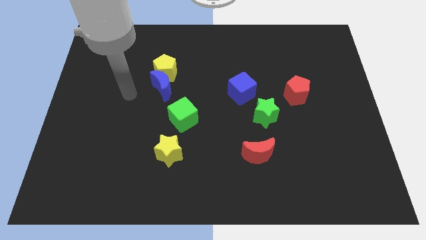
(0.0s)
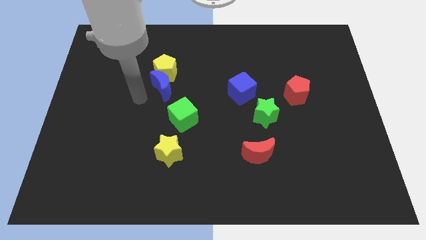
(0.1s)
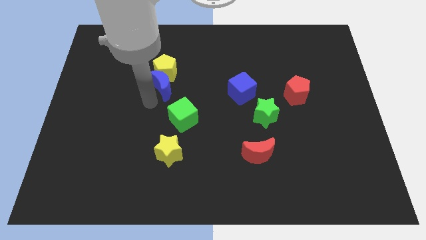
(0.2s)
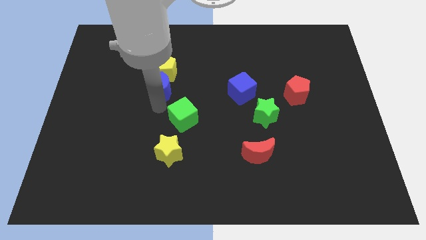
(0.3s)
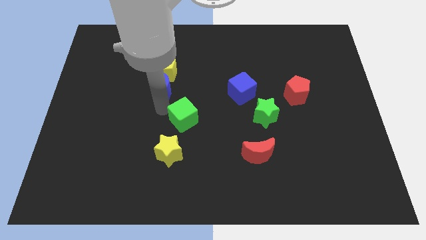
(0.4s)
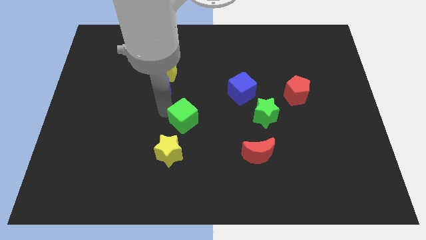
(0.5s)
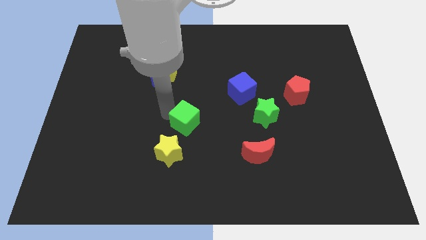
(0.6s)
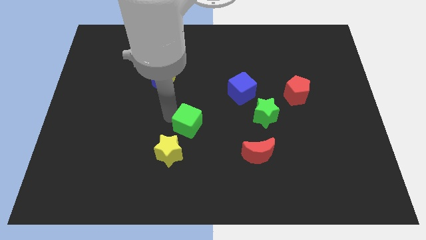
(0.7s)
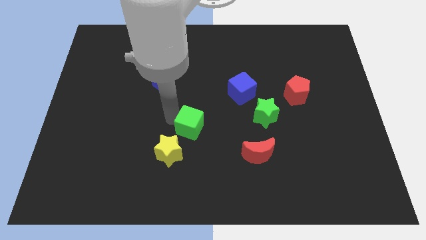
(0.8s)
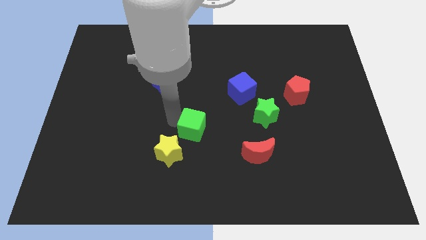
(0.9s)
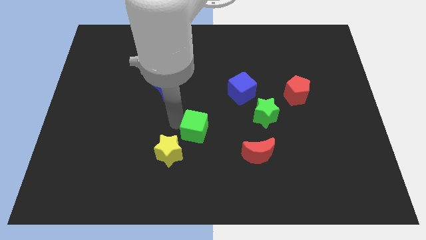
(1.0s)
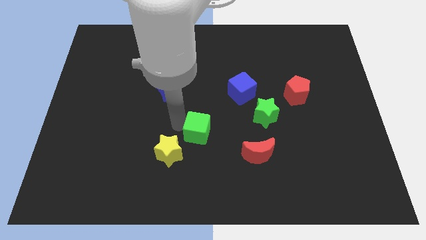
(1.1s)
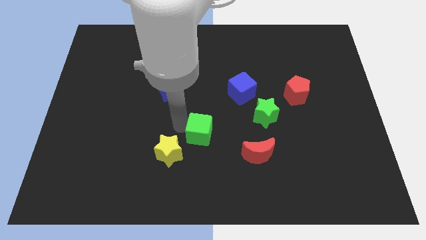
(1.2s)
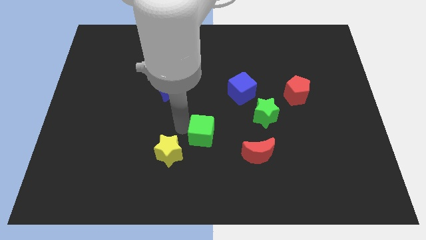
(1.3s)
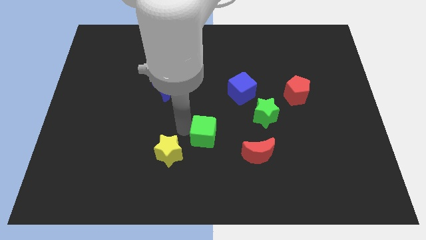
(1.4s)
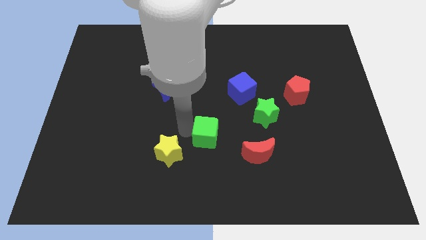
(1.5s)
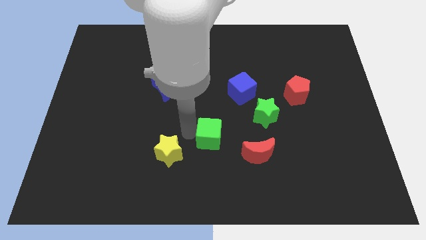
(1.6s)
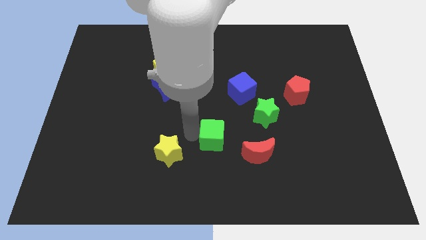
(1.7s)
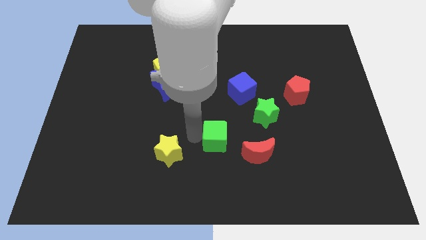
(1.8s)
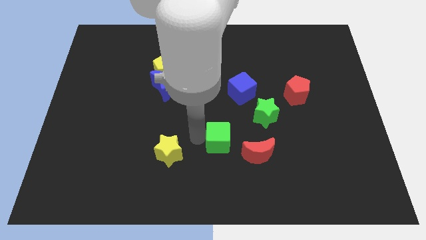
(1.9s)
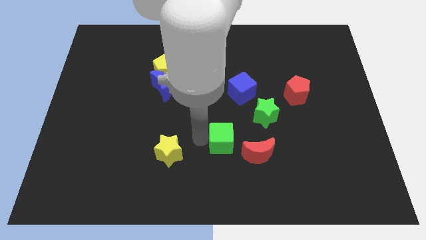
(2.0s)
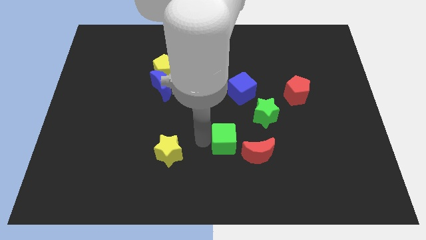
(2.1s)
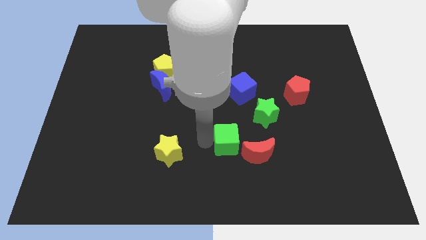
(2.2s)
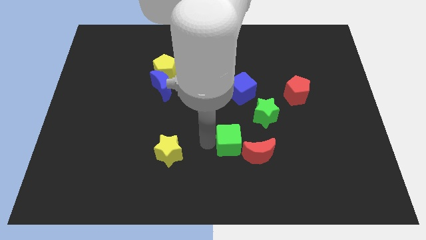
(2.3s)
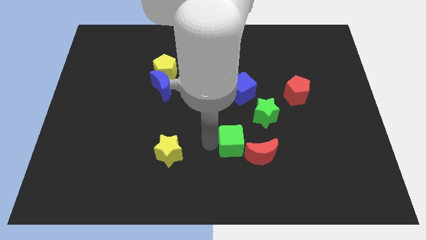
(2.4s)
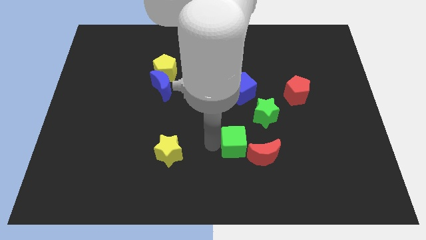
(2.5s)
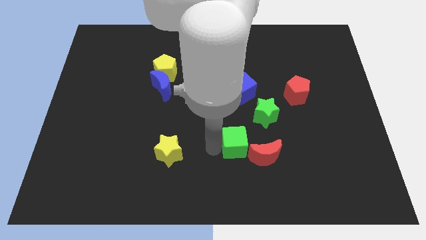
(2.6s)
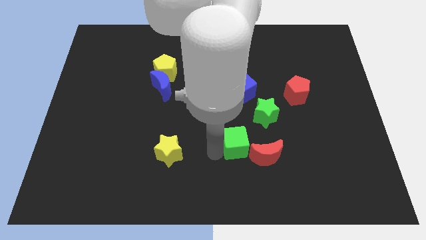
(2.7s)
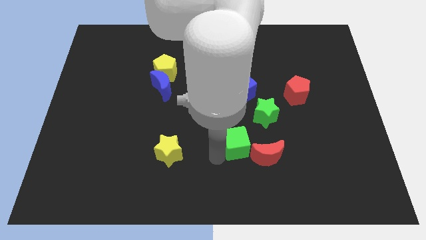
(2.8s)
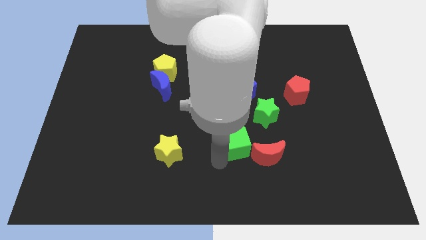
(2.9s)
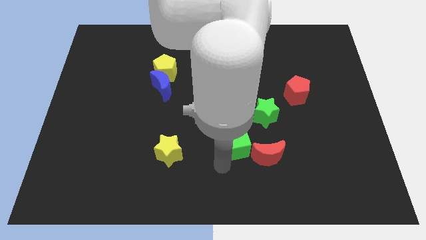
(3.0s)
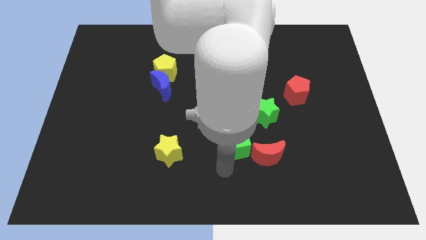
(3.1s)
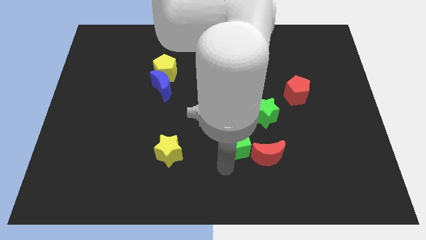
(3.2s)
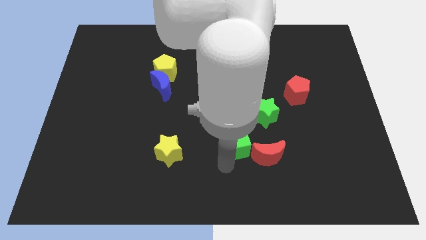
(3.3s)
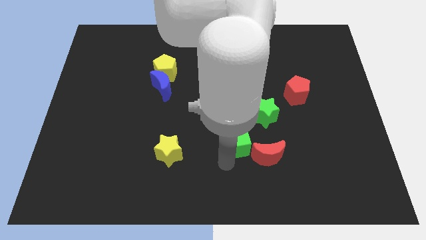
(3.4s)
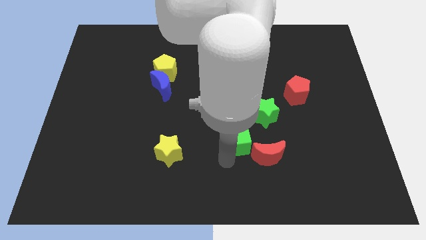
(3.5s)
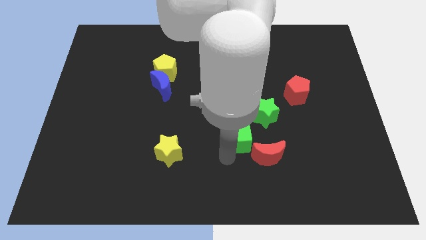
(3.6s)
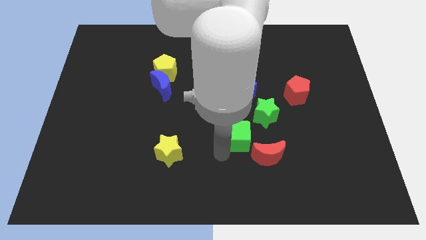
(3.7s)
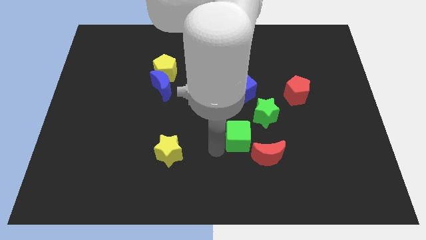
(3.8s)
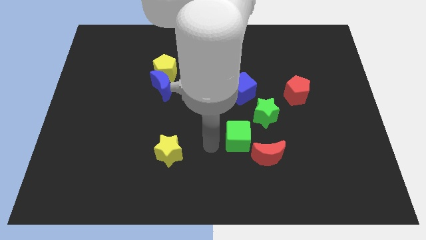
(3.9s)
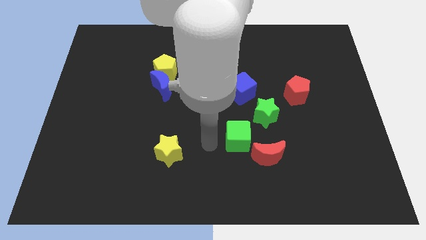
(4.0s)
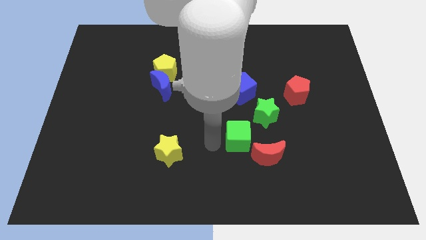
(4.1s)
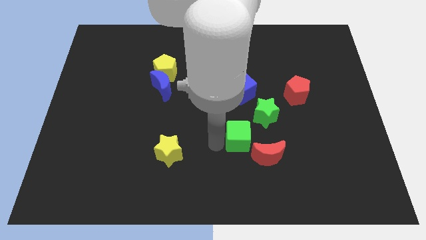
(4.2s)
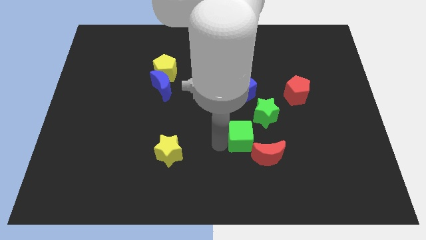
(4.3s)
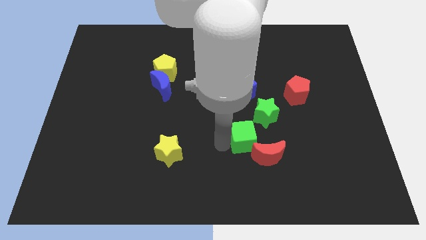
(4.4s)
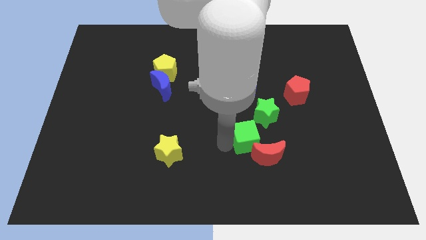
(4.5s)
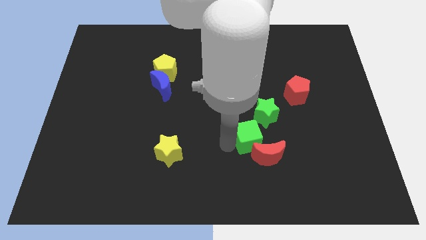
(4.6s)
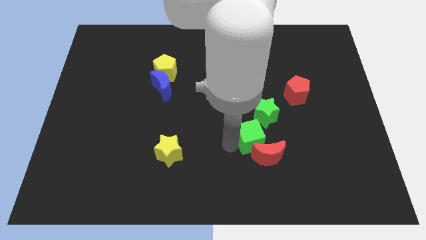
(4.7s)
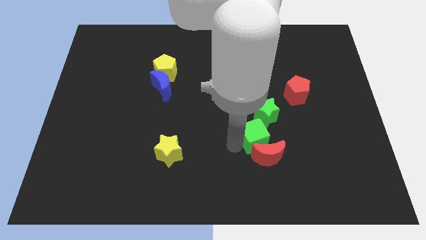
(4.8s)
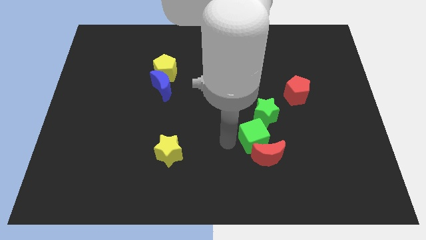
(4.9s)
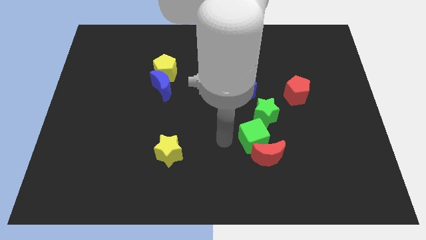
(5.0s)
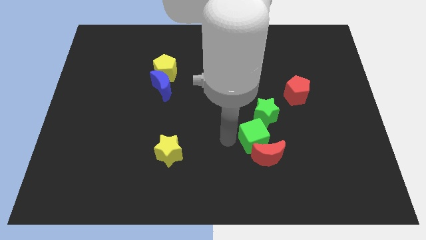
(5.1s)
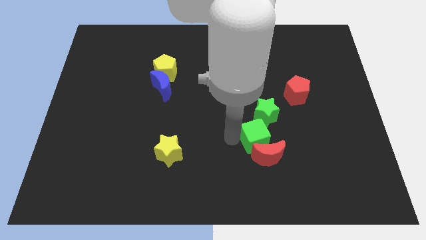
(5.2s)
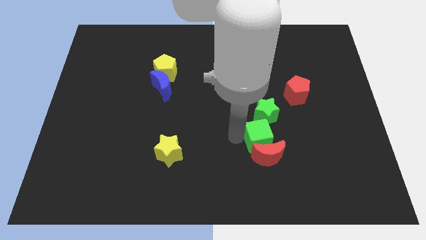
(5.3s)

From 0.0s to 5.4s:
put the green cube diagonally up and to the right of the red moon

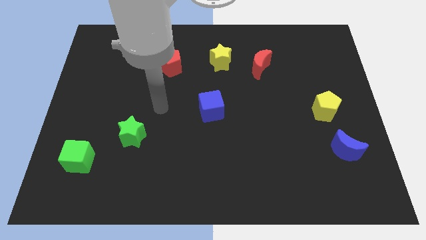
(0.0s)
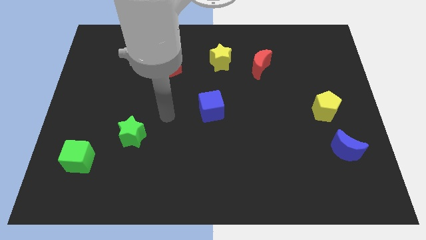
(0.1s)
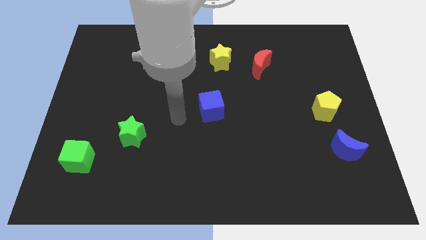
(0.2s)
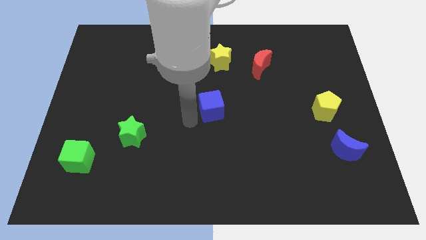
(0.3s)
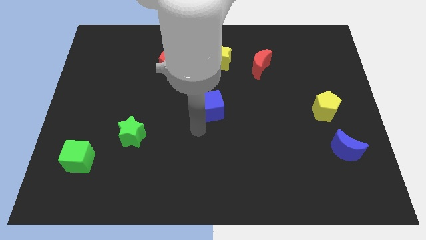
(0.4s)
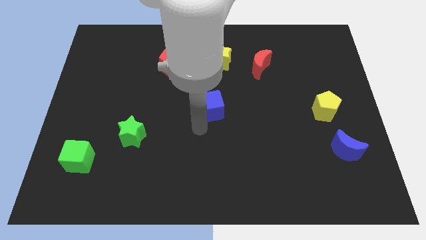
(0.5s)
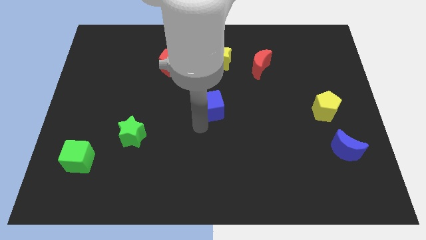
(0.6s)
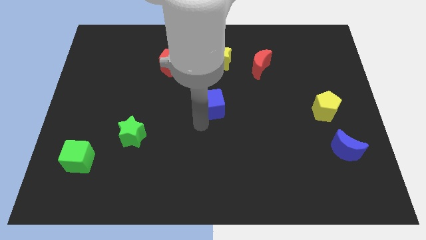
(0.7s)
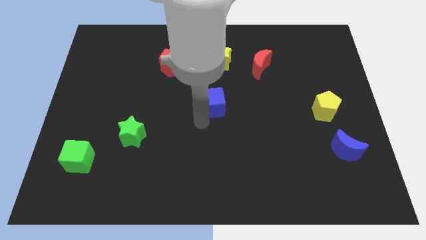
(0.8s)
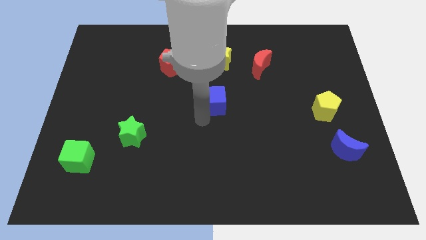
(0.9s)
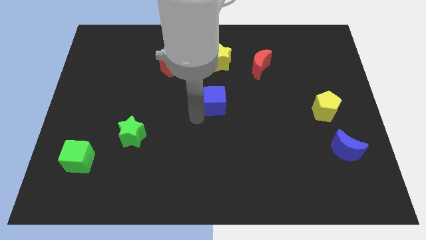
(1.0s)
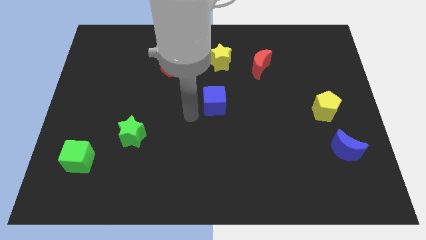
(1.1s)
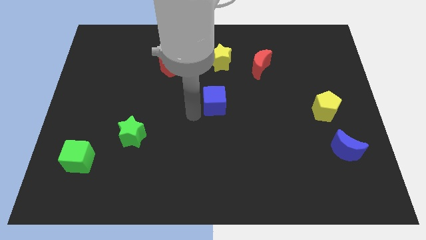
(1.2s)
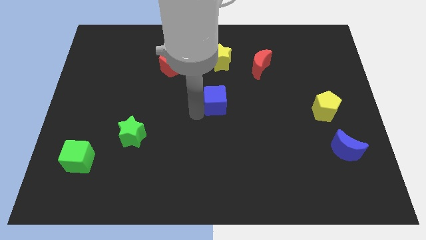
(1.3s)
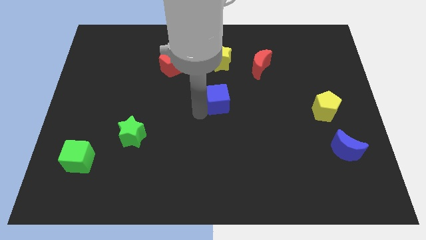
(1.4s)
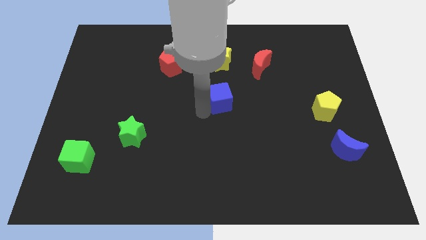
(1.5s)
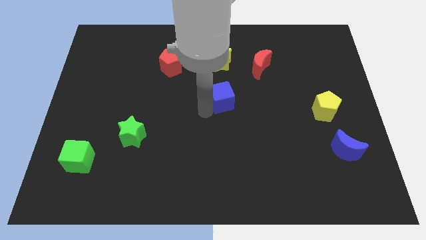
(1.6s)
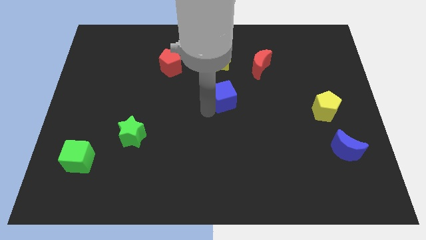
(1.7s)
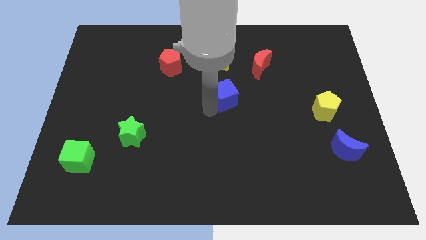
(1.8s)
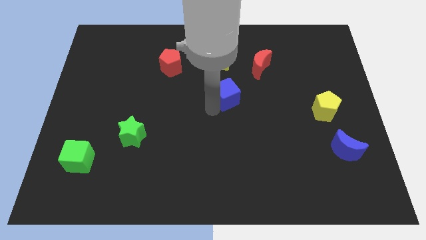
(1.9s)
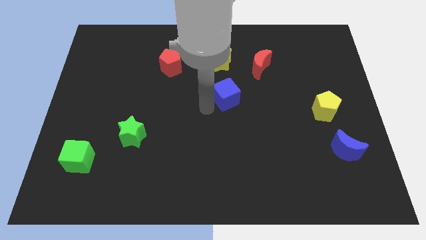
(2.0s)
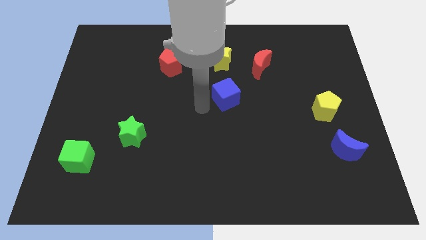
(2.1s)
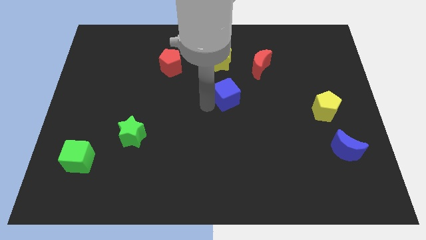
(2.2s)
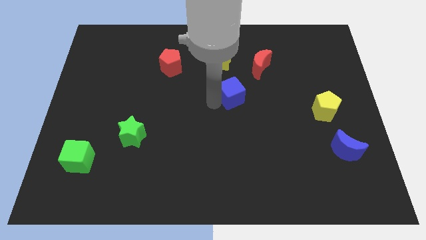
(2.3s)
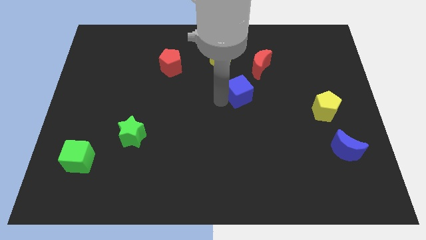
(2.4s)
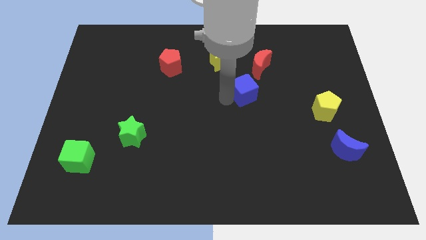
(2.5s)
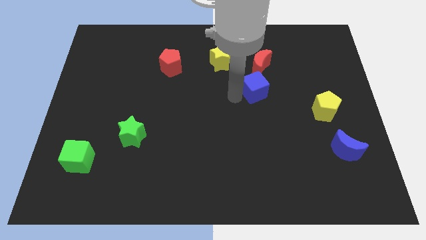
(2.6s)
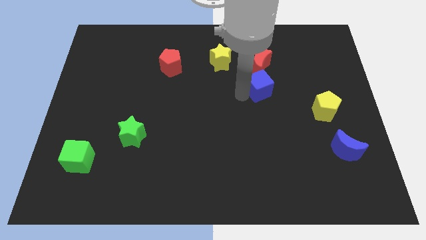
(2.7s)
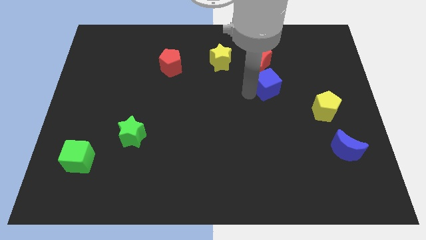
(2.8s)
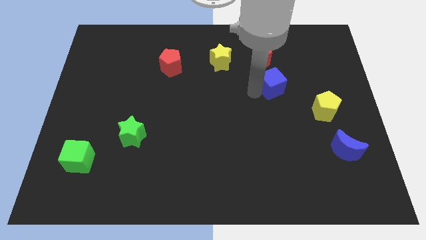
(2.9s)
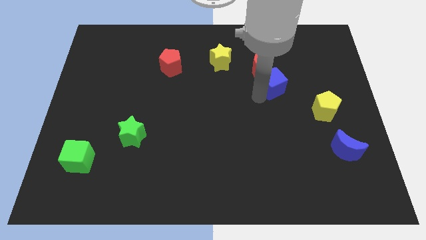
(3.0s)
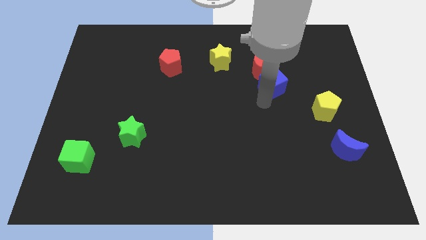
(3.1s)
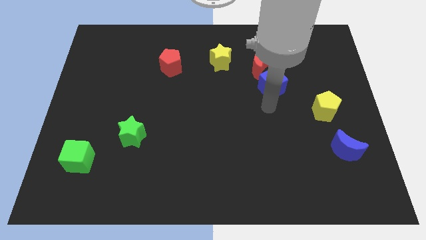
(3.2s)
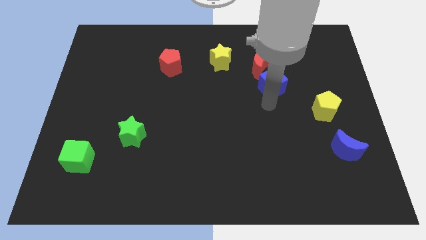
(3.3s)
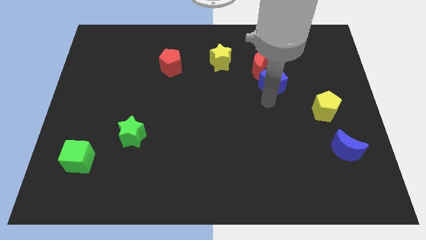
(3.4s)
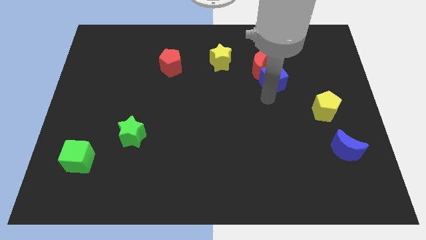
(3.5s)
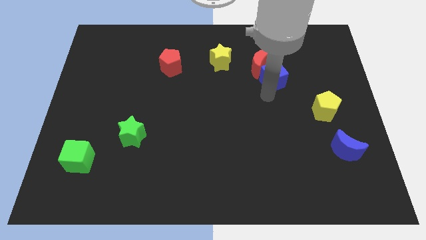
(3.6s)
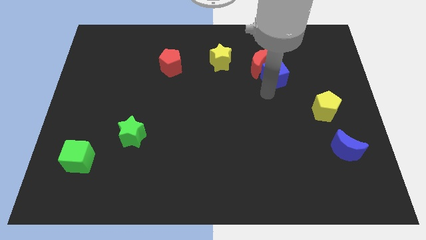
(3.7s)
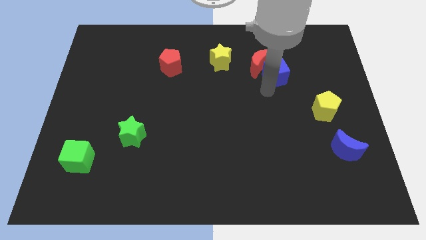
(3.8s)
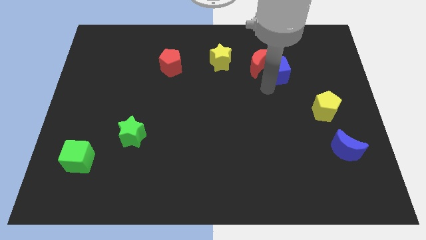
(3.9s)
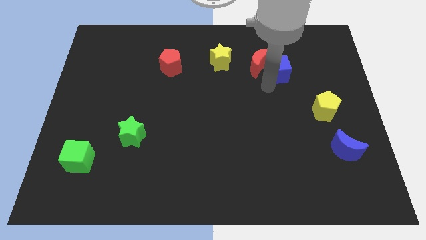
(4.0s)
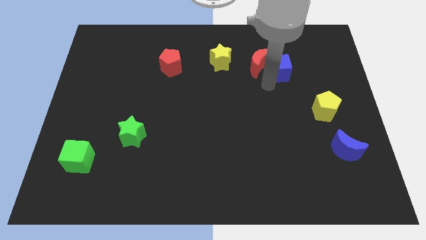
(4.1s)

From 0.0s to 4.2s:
push the blue cube to the right side of the yellow star
